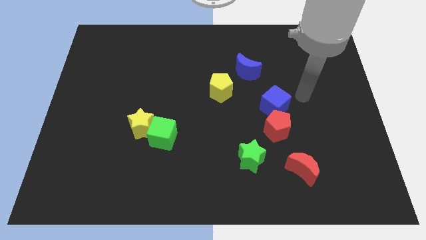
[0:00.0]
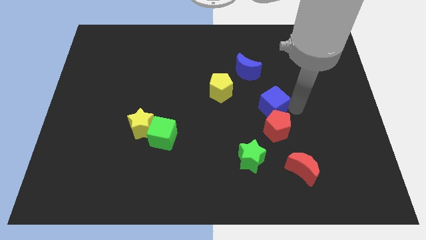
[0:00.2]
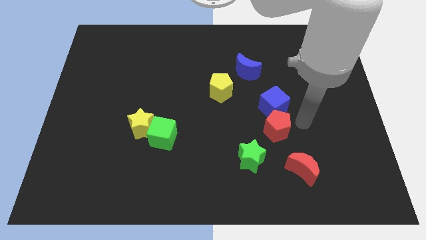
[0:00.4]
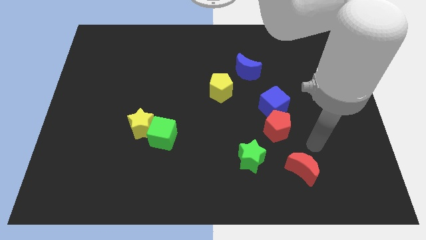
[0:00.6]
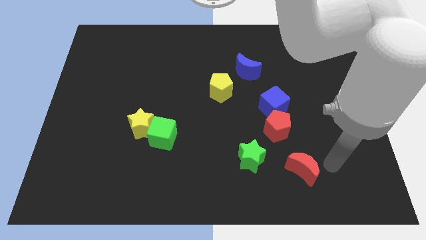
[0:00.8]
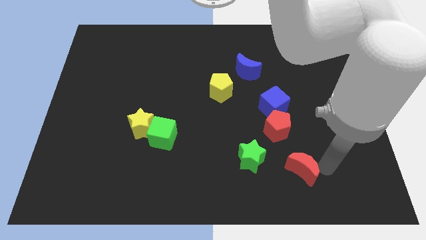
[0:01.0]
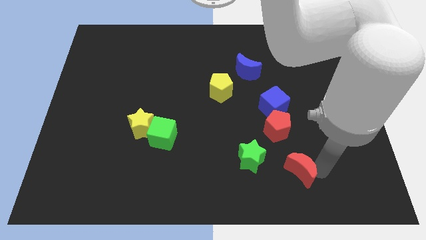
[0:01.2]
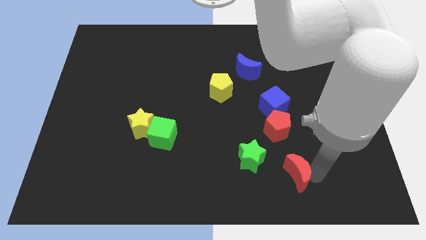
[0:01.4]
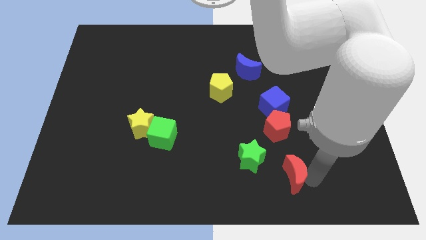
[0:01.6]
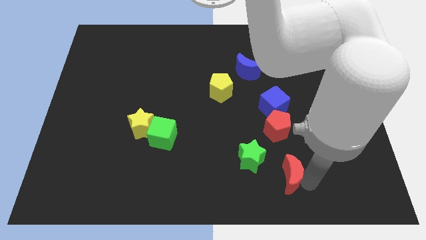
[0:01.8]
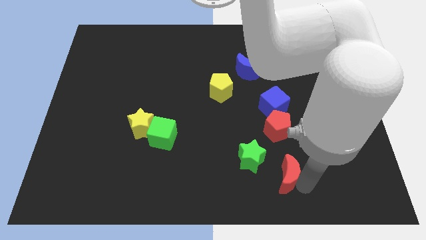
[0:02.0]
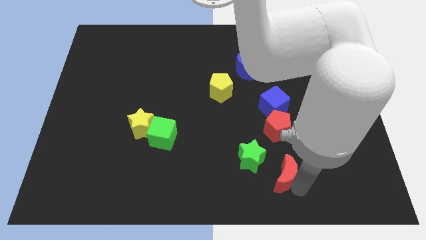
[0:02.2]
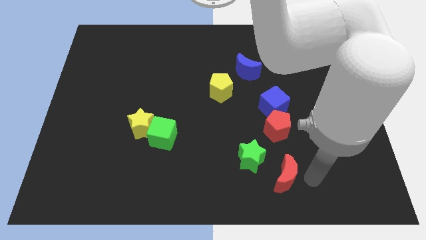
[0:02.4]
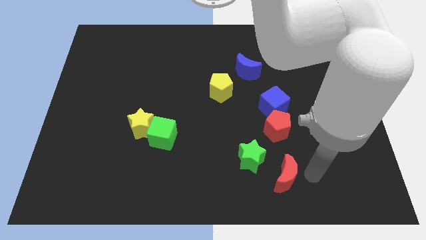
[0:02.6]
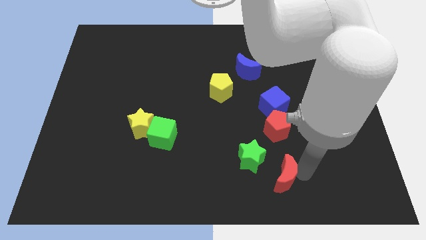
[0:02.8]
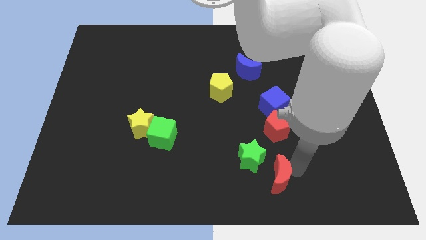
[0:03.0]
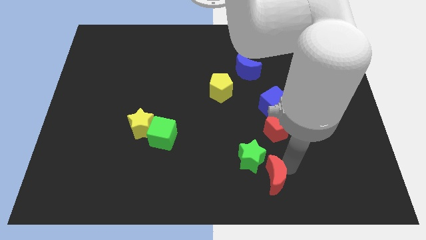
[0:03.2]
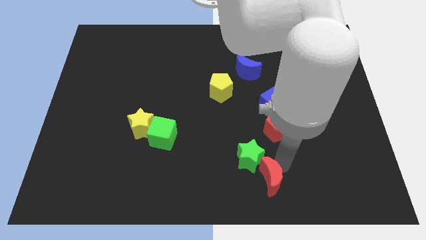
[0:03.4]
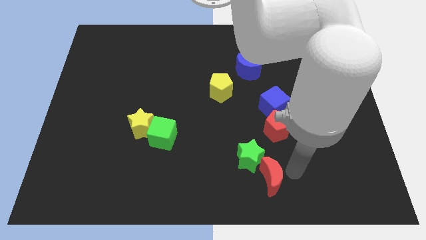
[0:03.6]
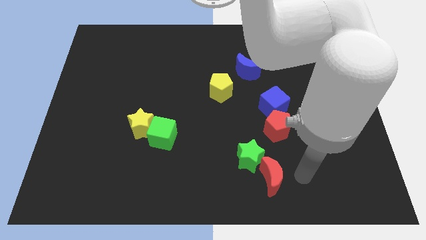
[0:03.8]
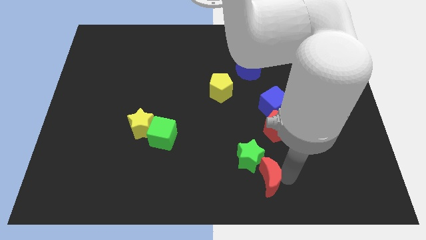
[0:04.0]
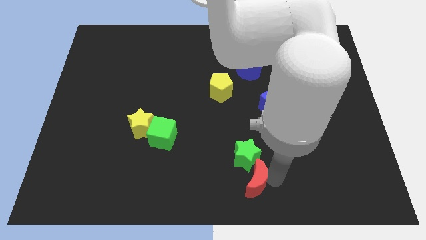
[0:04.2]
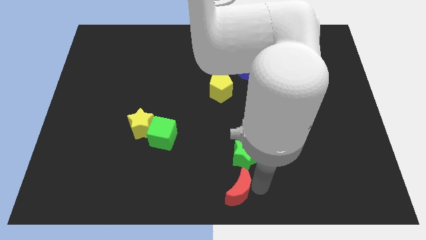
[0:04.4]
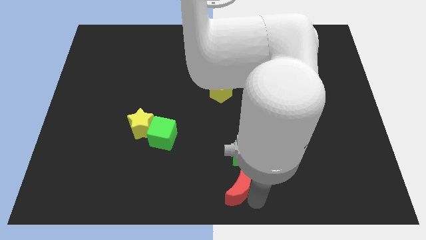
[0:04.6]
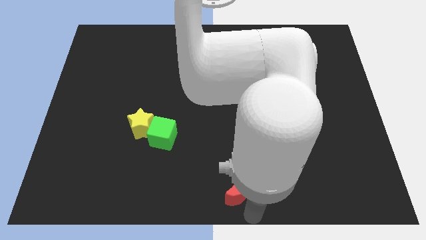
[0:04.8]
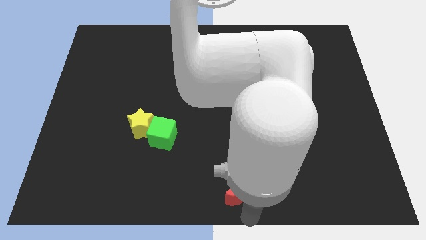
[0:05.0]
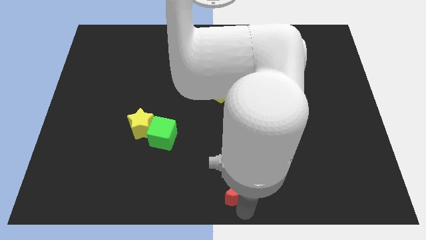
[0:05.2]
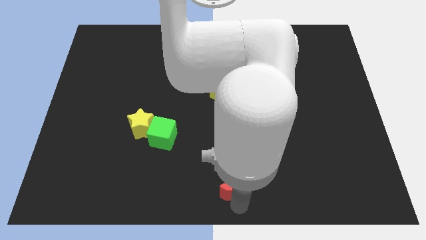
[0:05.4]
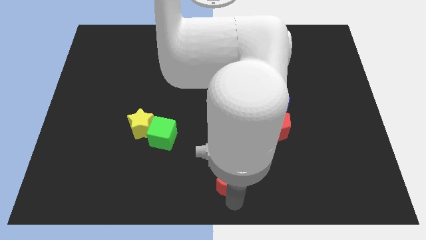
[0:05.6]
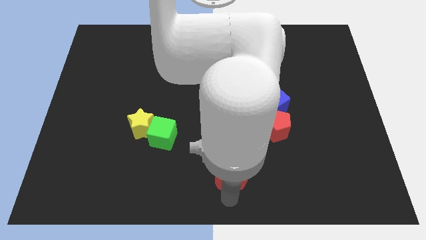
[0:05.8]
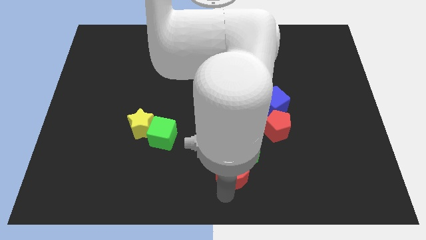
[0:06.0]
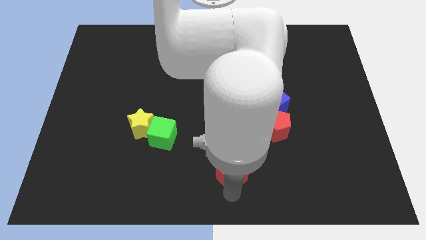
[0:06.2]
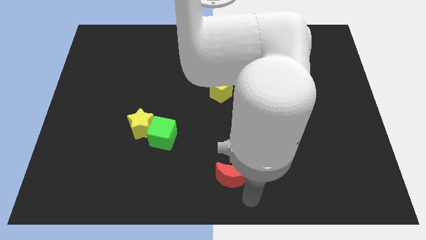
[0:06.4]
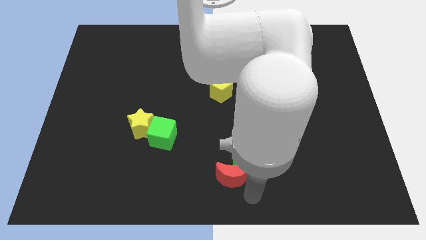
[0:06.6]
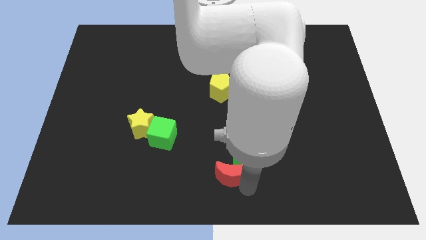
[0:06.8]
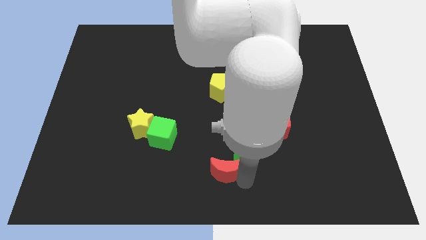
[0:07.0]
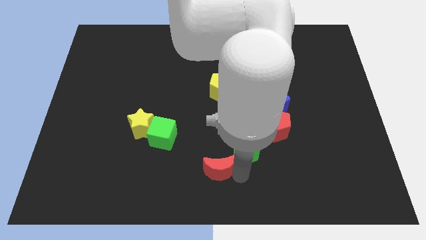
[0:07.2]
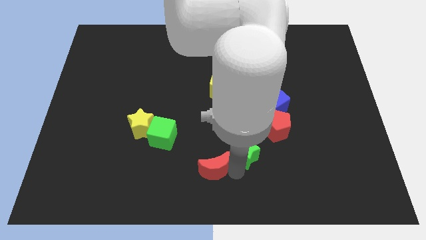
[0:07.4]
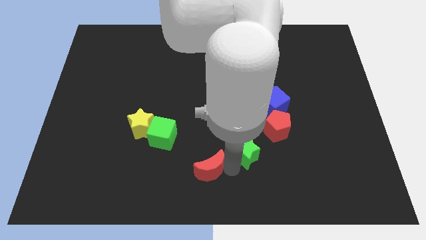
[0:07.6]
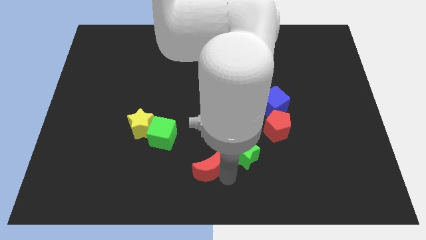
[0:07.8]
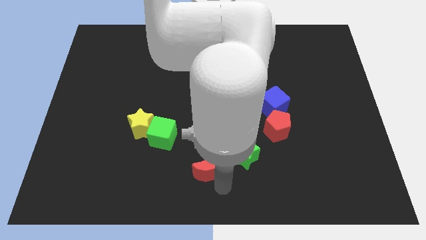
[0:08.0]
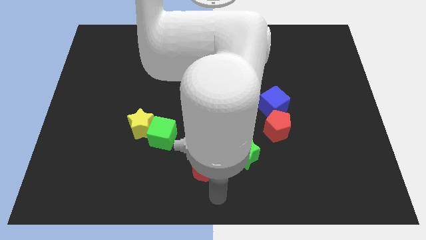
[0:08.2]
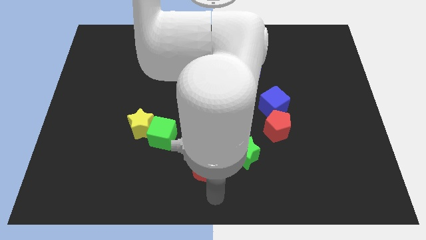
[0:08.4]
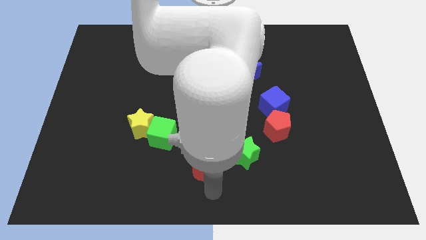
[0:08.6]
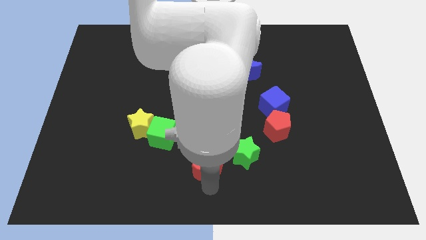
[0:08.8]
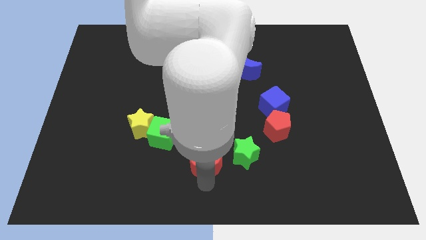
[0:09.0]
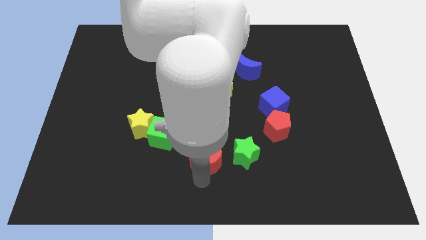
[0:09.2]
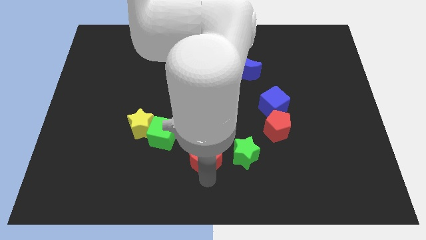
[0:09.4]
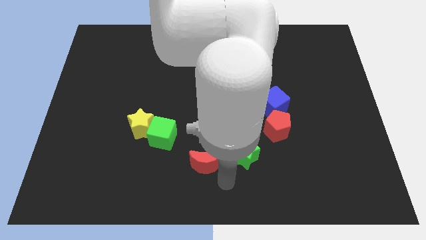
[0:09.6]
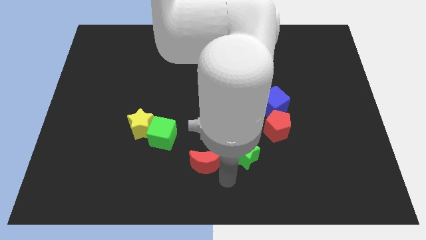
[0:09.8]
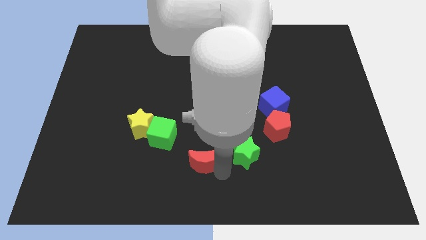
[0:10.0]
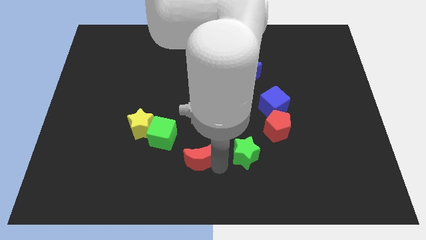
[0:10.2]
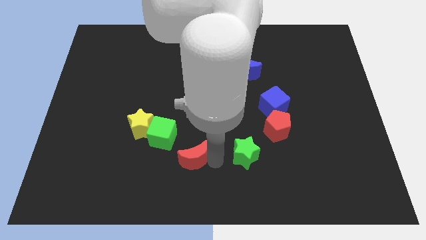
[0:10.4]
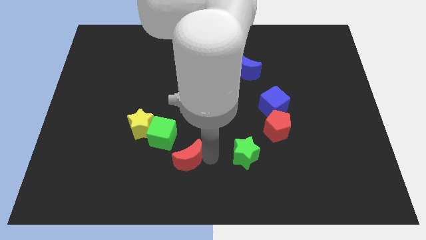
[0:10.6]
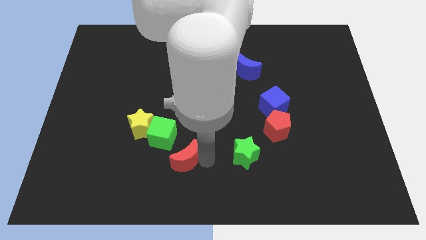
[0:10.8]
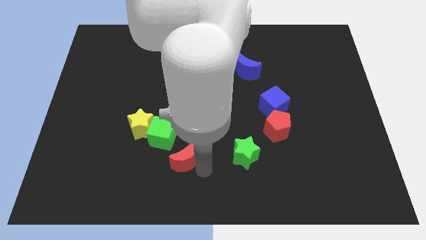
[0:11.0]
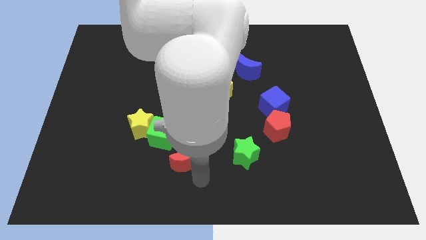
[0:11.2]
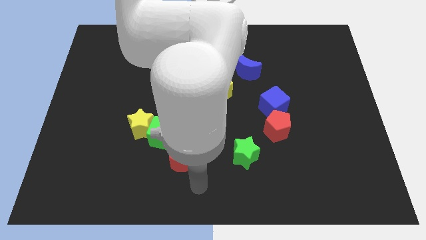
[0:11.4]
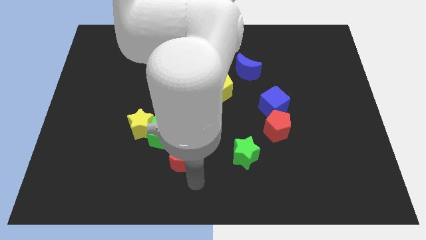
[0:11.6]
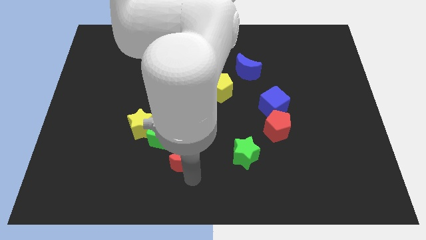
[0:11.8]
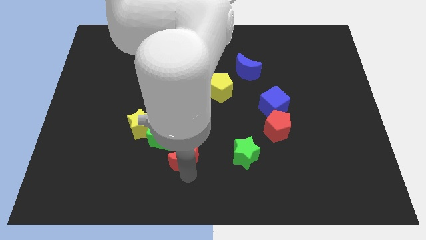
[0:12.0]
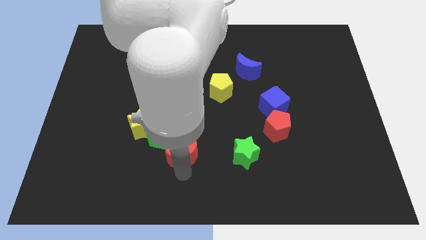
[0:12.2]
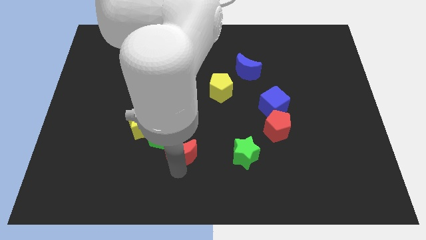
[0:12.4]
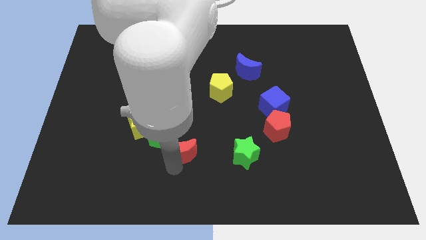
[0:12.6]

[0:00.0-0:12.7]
put the red moon next to the green cube

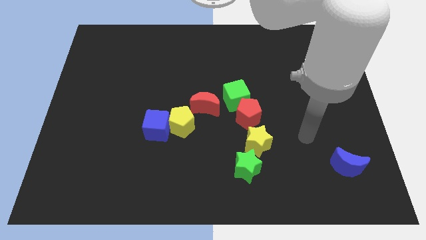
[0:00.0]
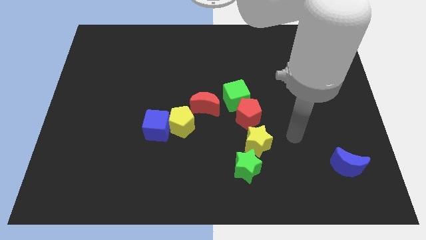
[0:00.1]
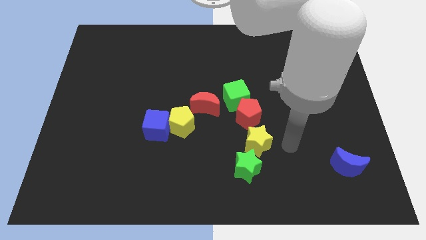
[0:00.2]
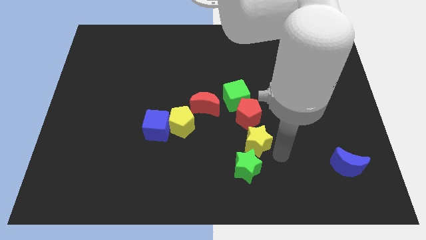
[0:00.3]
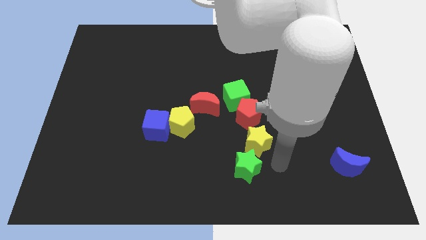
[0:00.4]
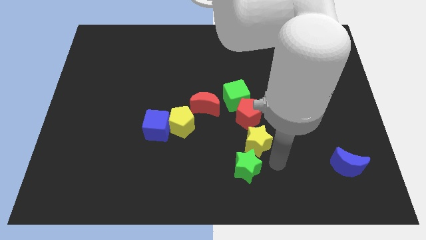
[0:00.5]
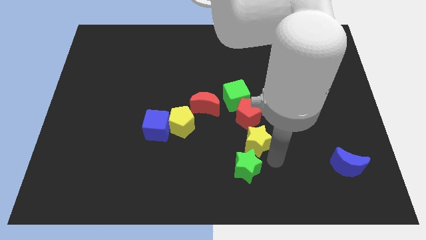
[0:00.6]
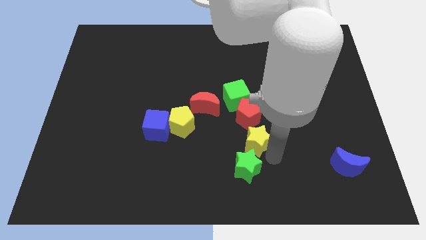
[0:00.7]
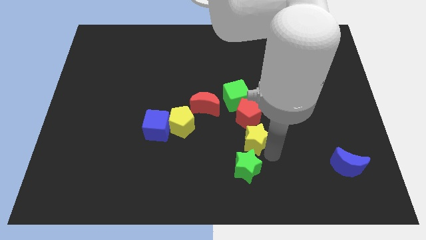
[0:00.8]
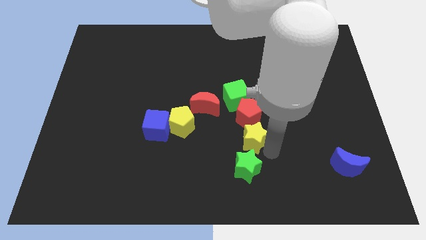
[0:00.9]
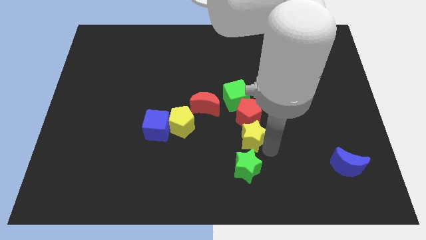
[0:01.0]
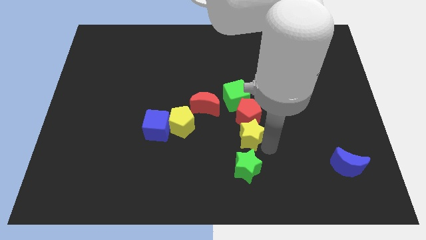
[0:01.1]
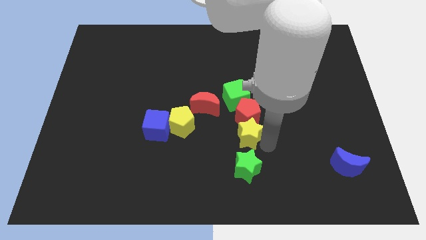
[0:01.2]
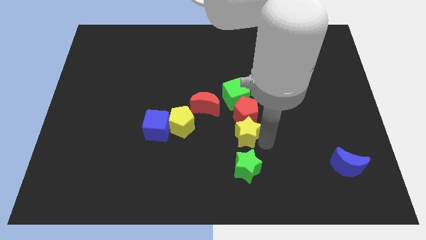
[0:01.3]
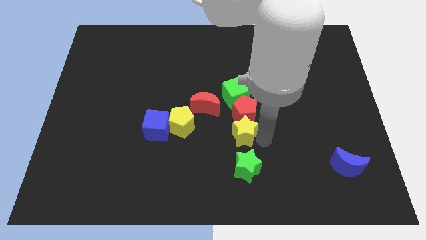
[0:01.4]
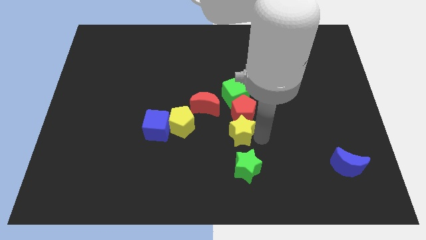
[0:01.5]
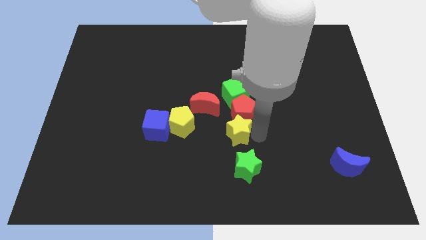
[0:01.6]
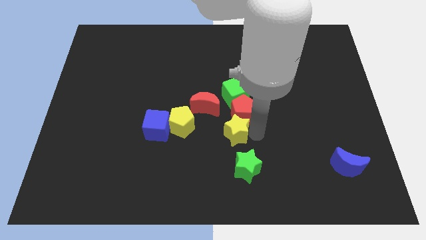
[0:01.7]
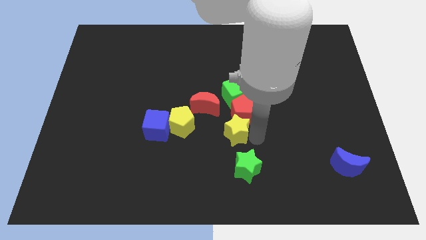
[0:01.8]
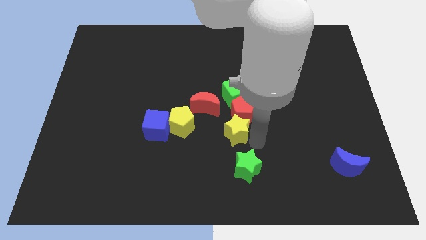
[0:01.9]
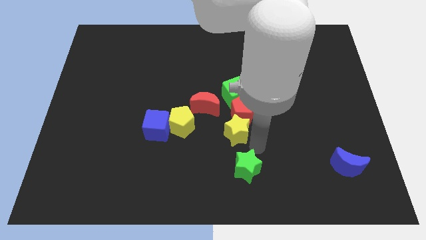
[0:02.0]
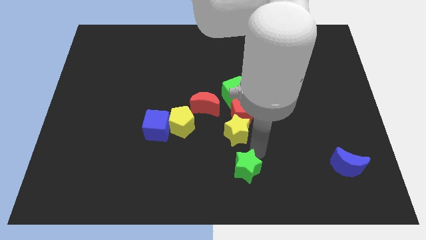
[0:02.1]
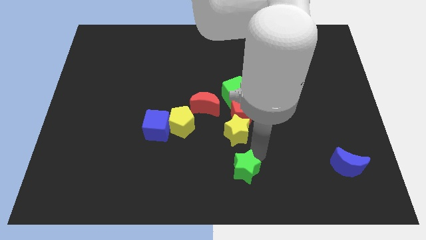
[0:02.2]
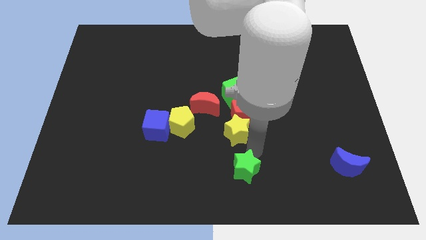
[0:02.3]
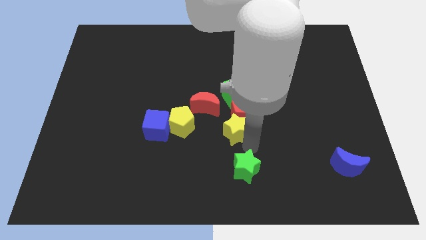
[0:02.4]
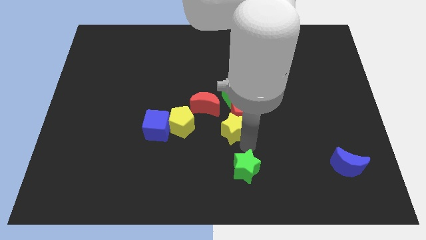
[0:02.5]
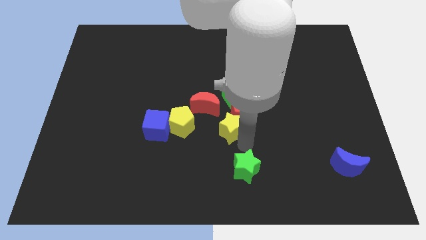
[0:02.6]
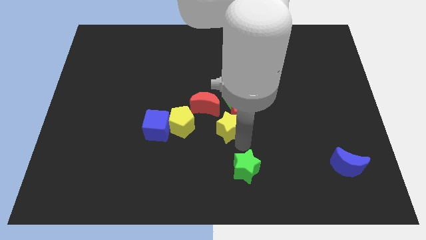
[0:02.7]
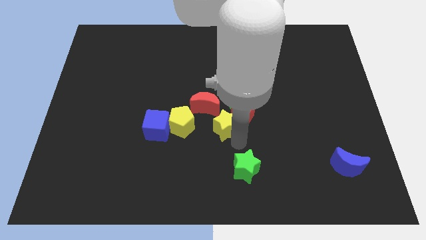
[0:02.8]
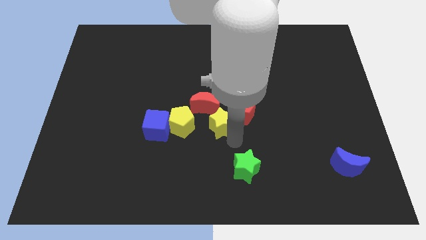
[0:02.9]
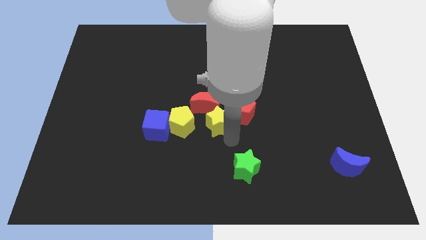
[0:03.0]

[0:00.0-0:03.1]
move the yellow star close to the red moon
